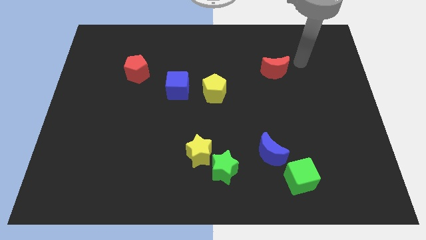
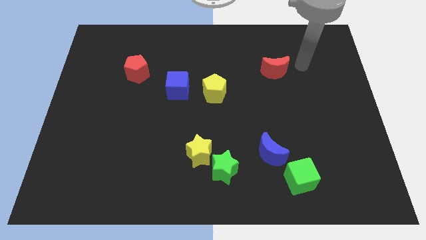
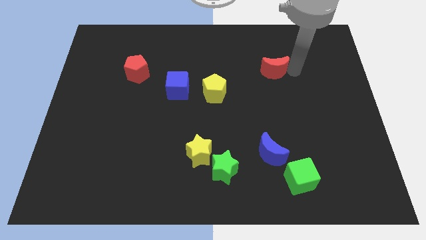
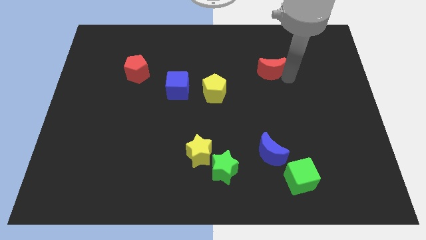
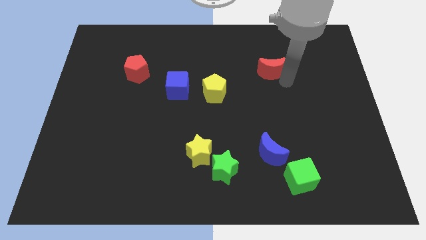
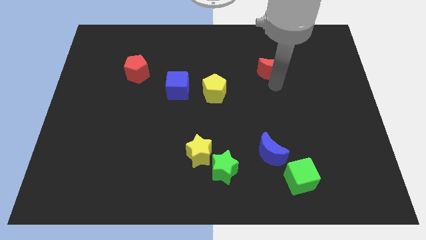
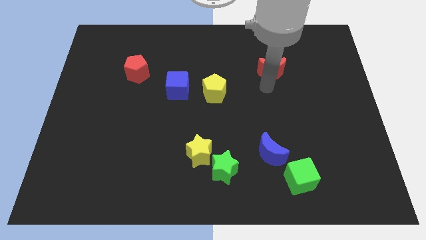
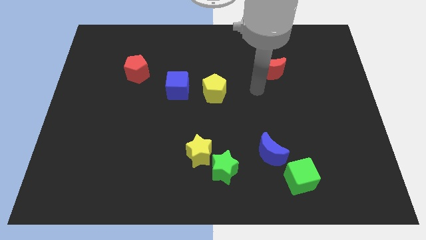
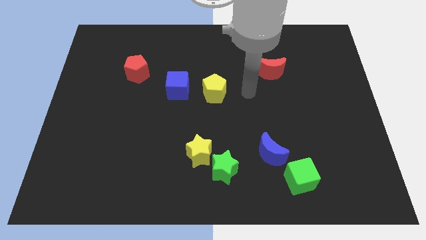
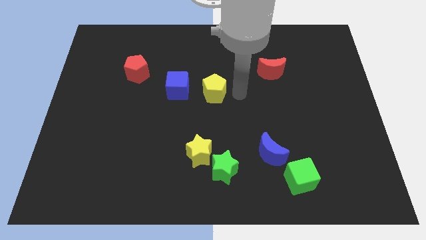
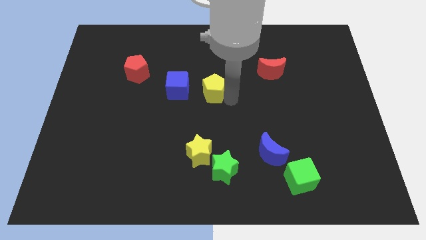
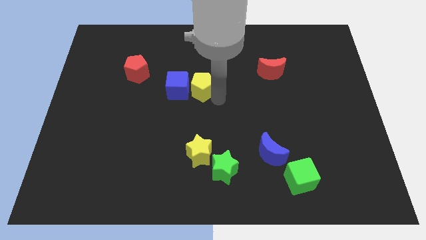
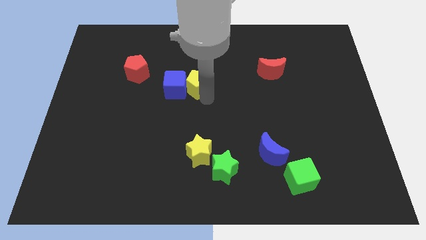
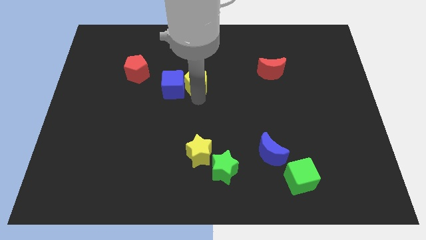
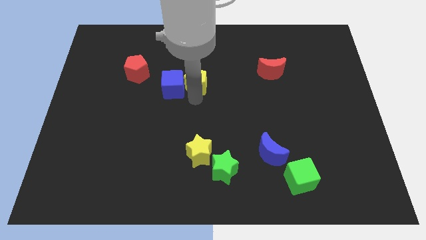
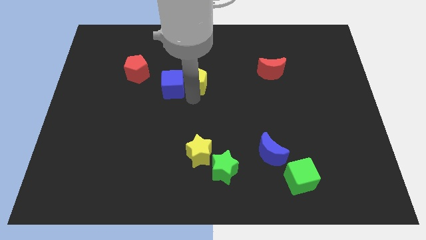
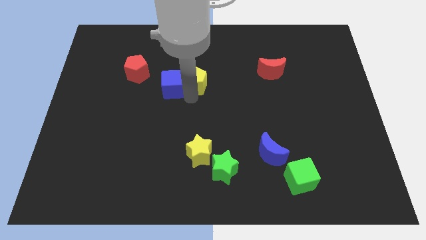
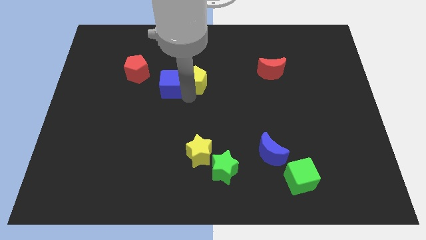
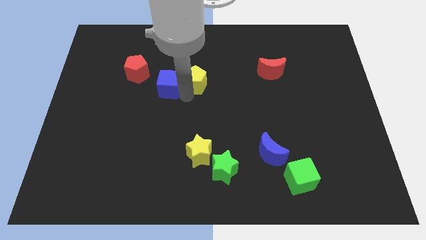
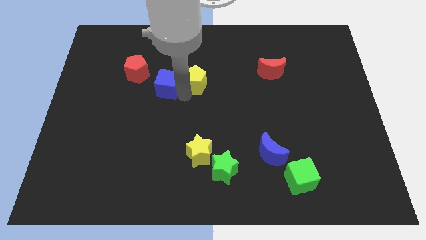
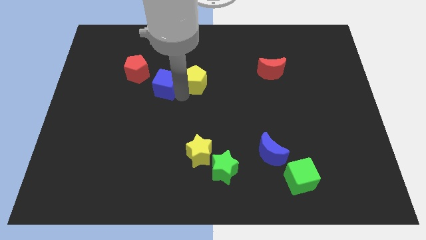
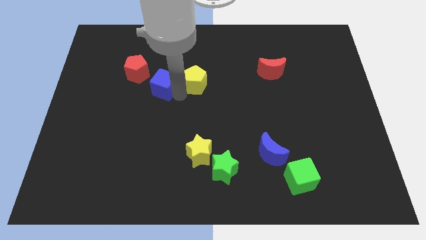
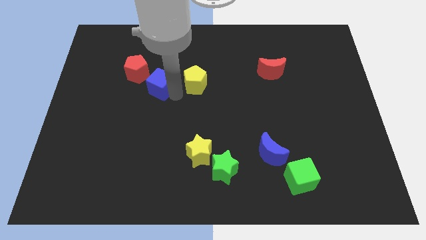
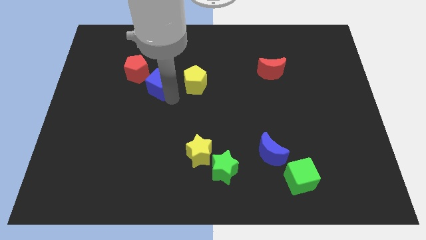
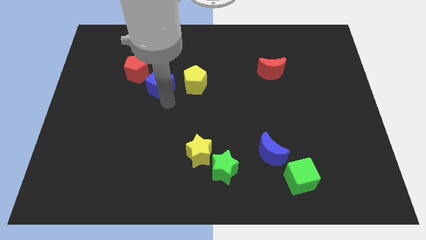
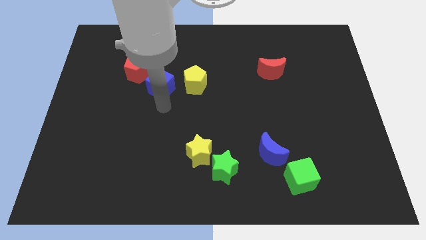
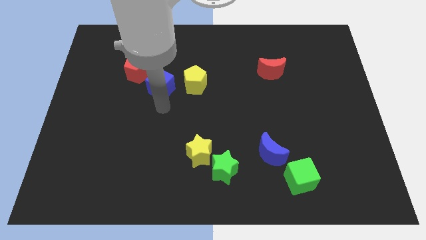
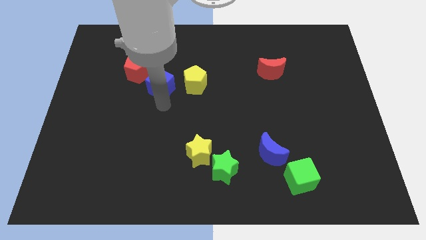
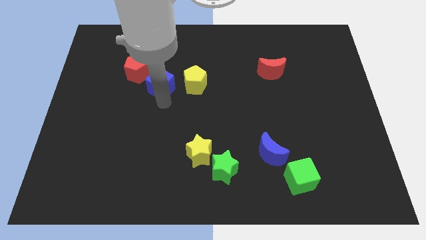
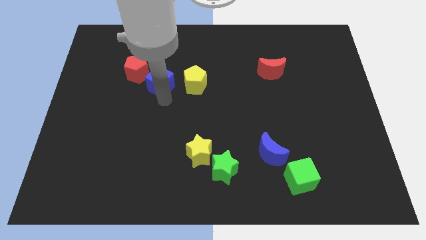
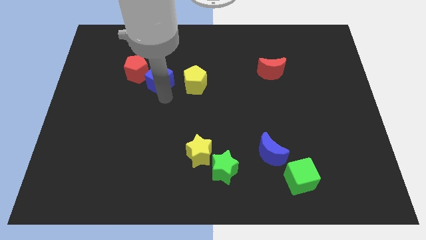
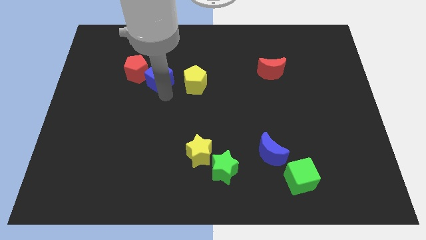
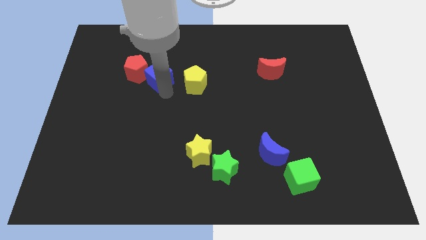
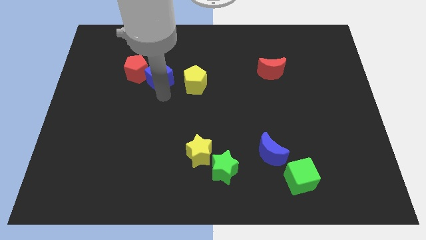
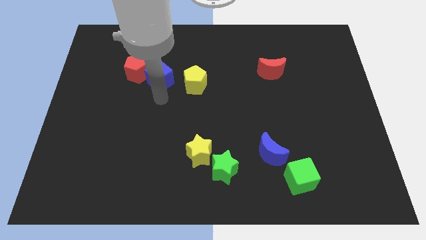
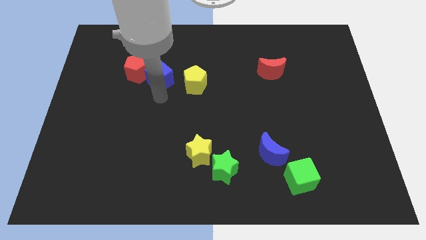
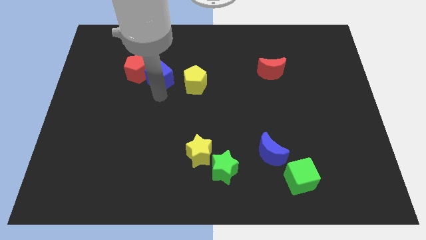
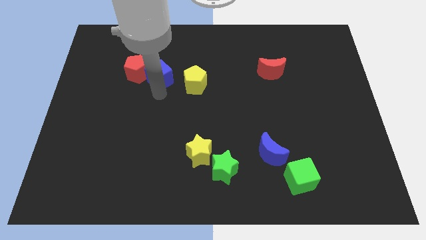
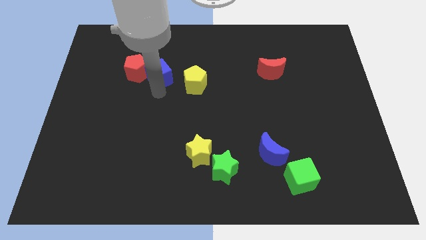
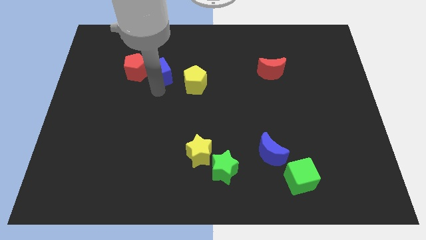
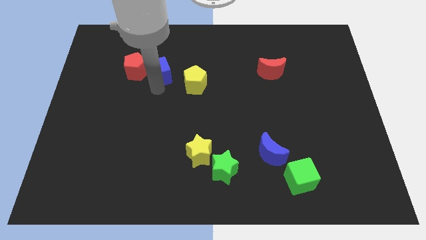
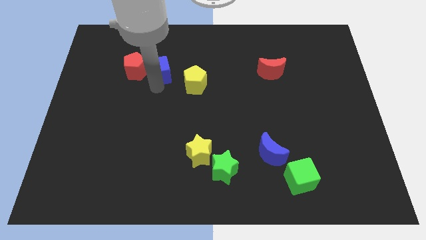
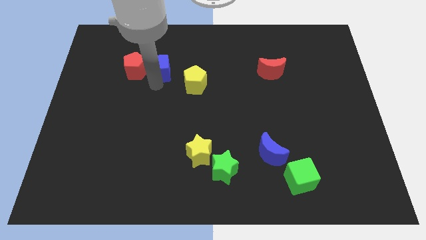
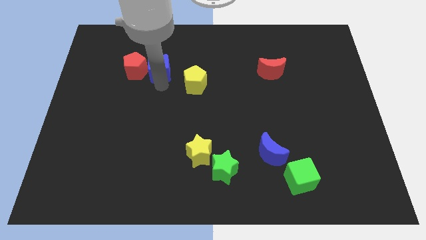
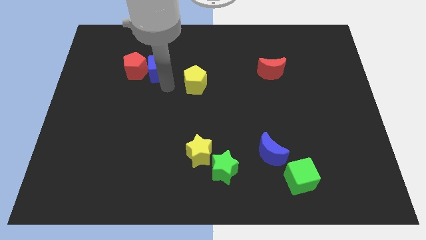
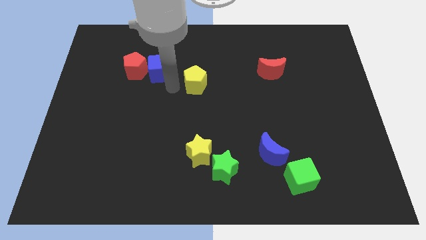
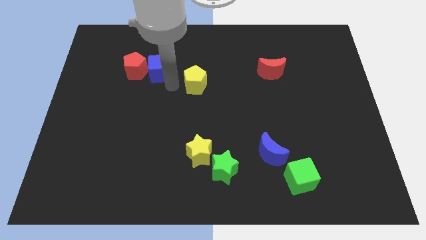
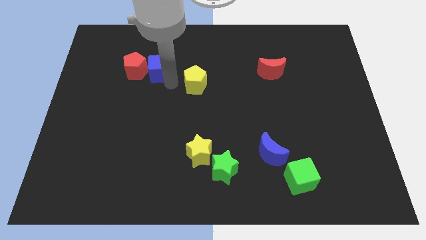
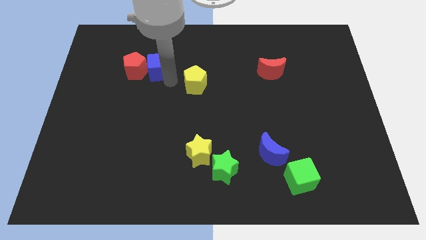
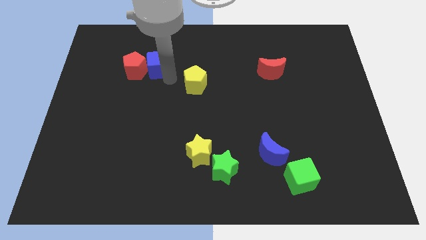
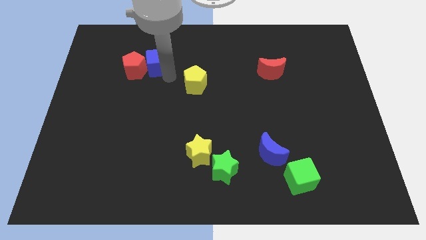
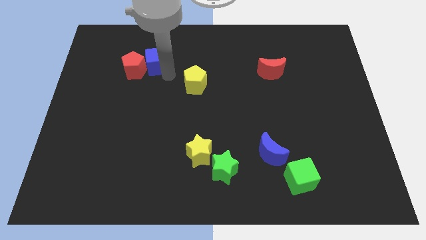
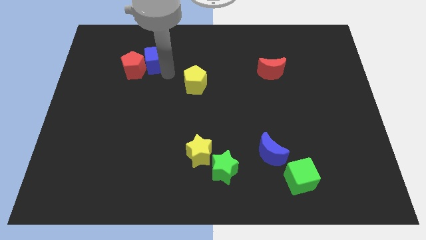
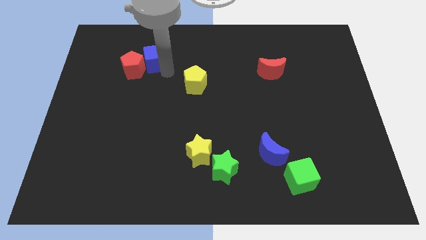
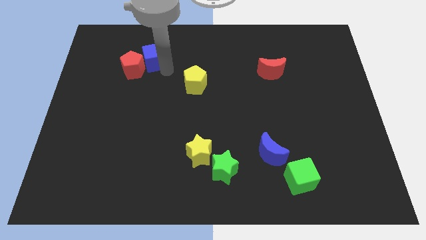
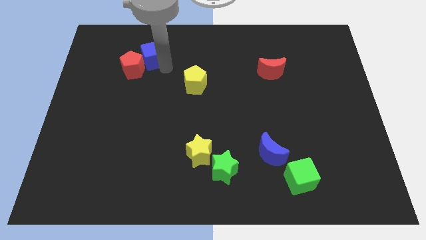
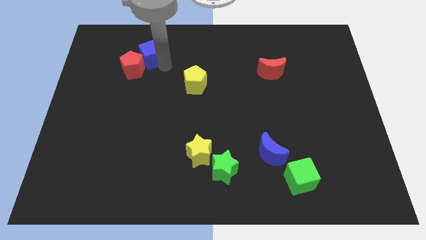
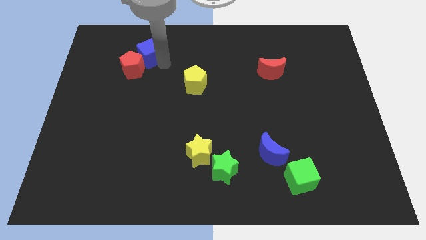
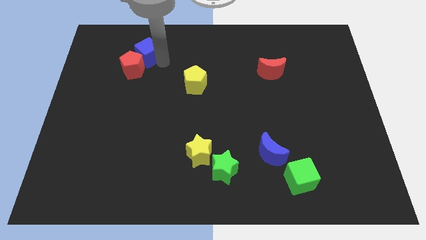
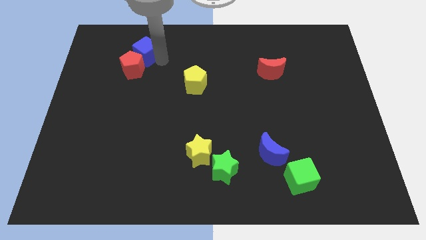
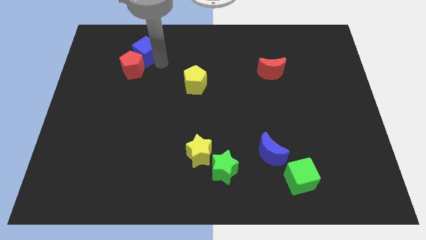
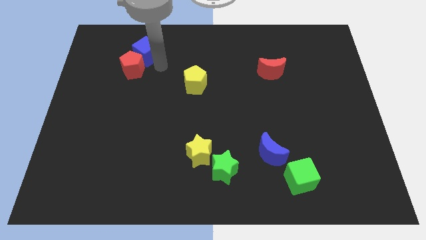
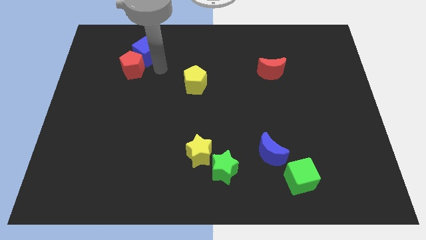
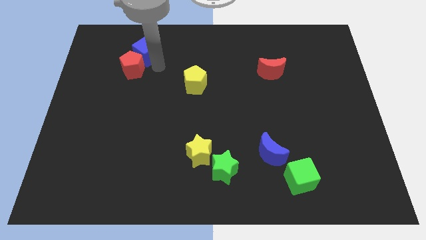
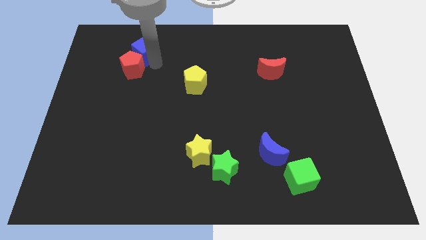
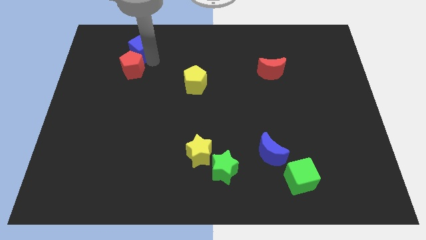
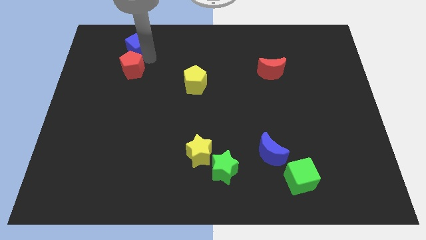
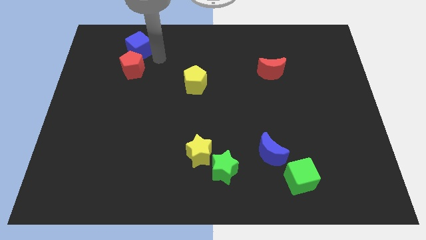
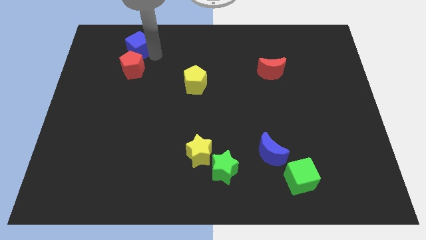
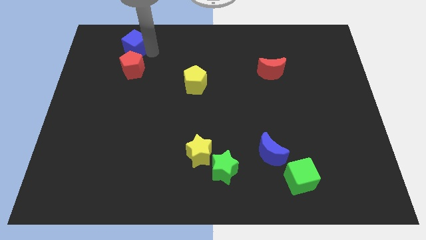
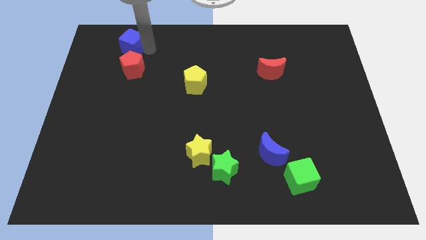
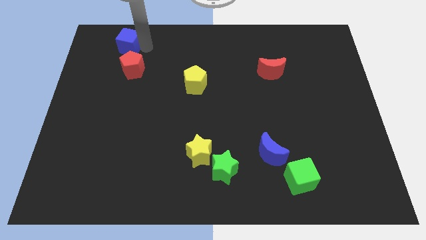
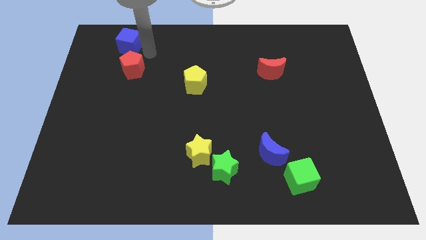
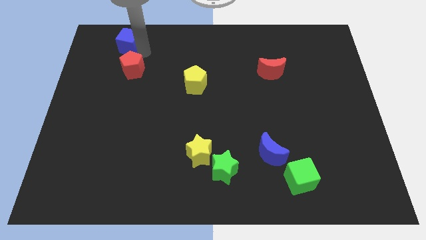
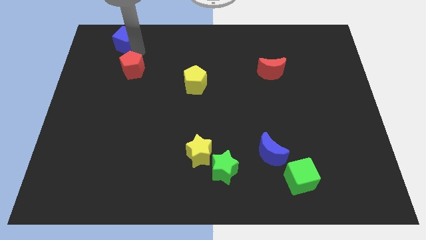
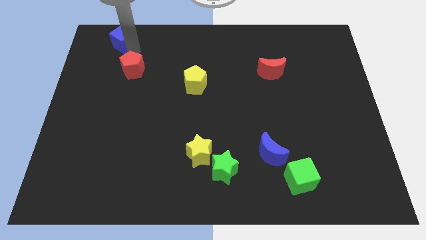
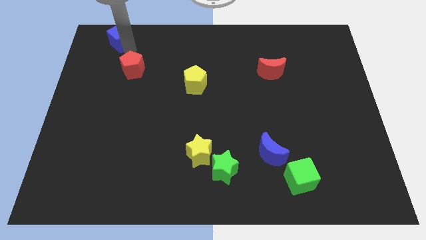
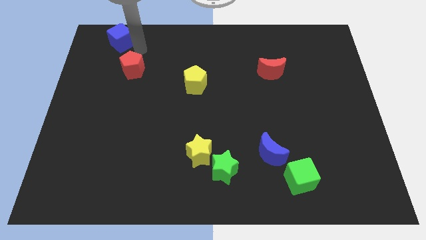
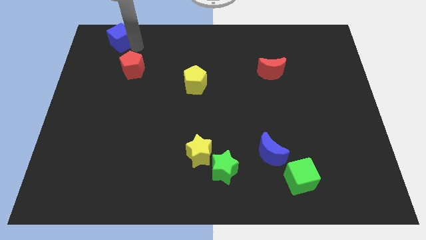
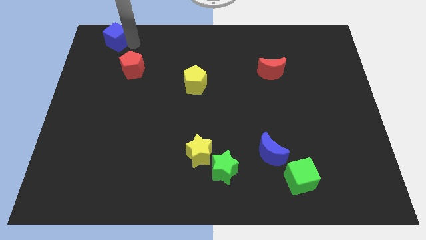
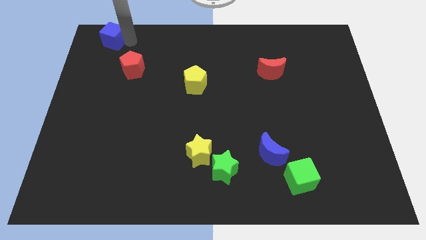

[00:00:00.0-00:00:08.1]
put the blue cube to the top left corner
